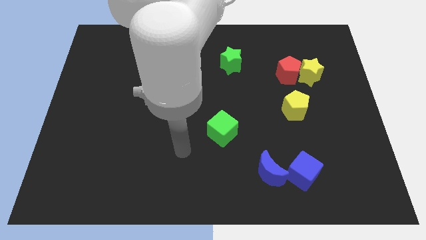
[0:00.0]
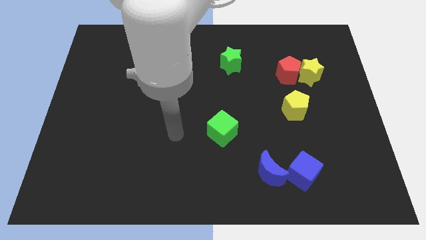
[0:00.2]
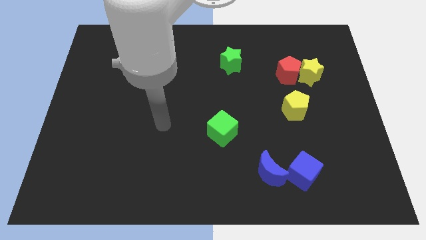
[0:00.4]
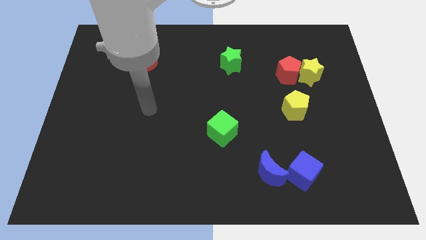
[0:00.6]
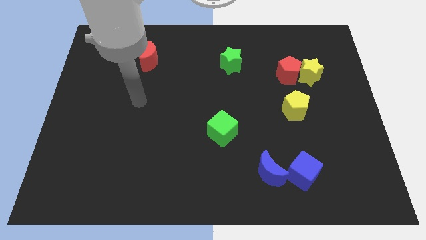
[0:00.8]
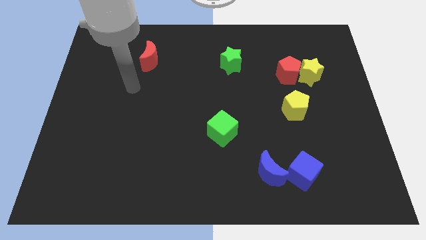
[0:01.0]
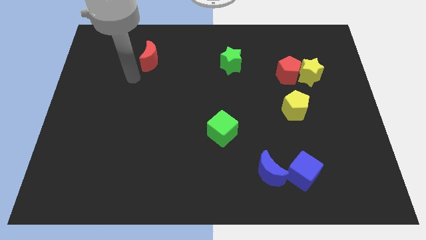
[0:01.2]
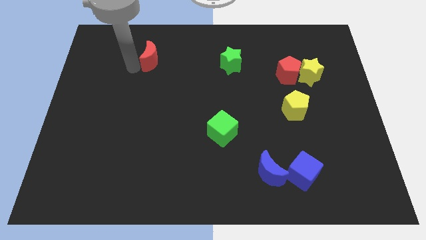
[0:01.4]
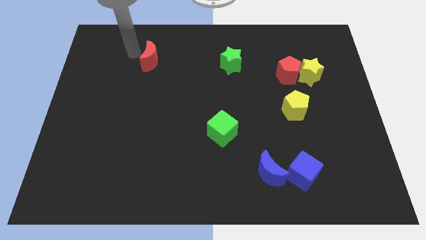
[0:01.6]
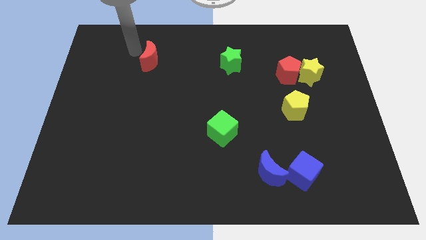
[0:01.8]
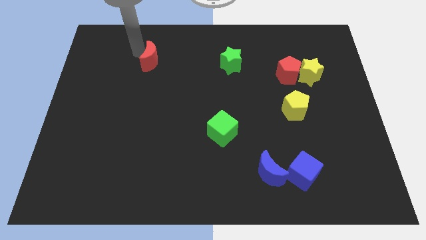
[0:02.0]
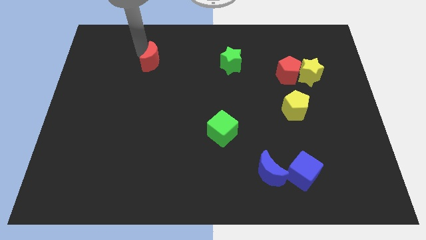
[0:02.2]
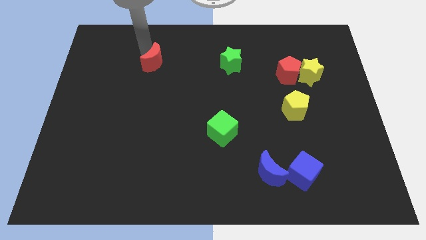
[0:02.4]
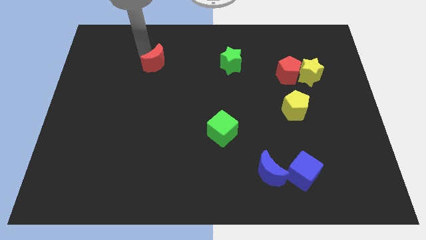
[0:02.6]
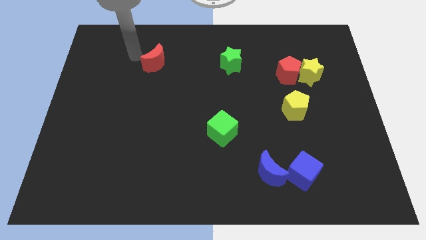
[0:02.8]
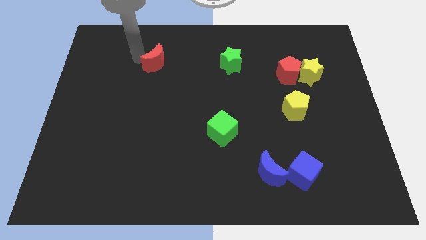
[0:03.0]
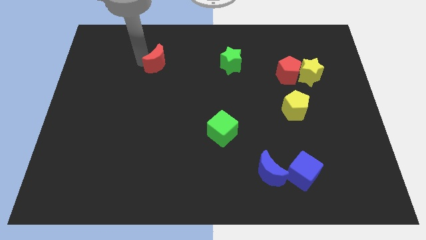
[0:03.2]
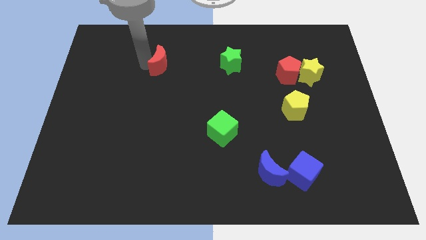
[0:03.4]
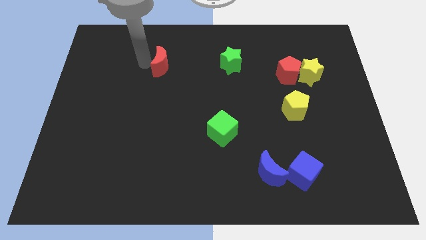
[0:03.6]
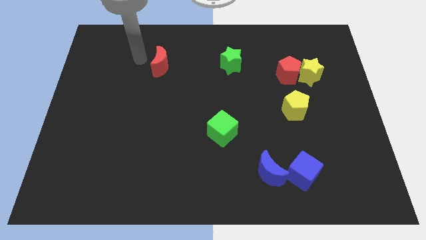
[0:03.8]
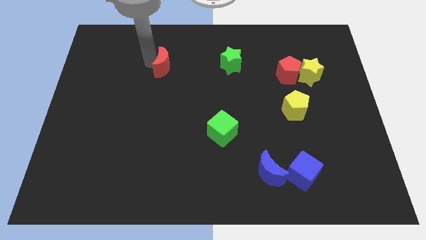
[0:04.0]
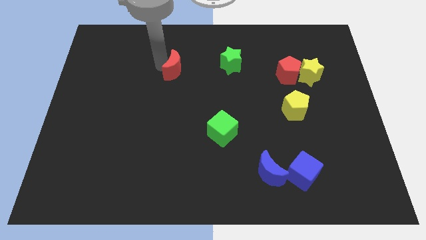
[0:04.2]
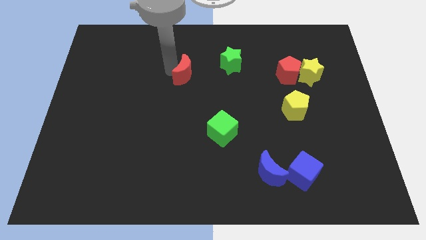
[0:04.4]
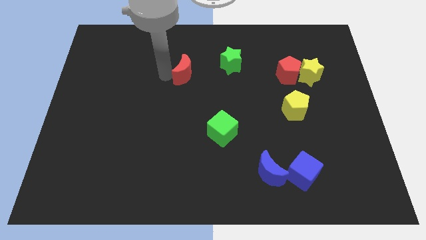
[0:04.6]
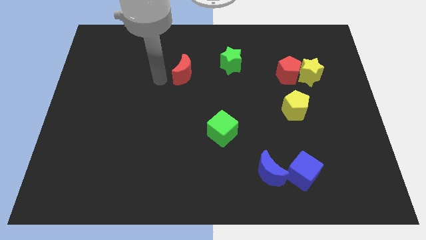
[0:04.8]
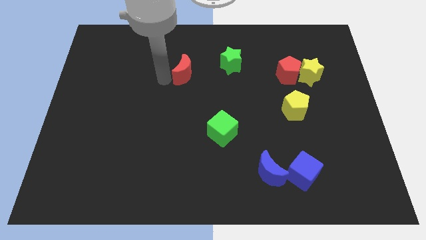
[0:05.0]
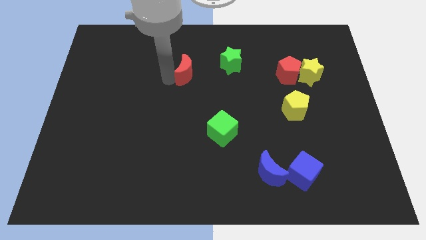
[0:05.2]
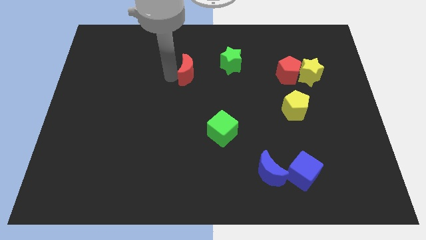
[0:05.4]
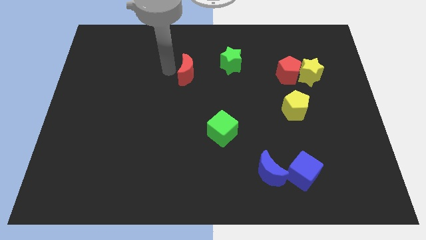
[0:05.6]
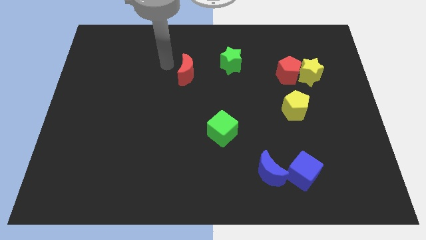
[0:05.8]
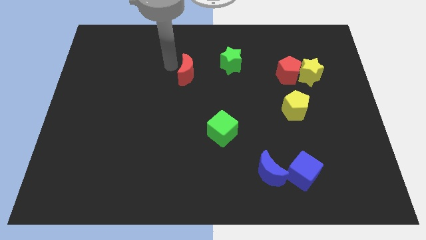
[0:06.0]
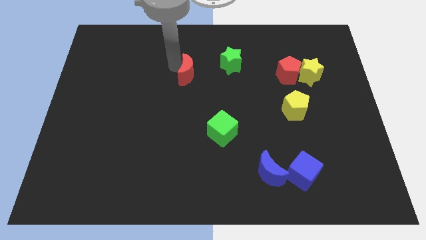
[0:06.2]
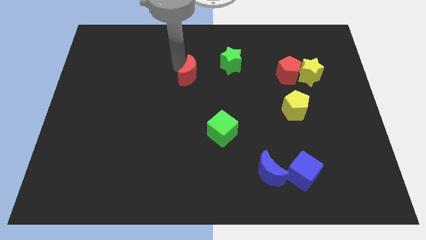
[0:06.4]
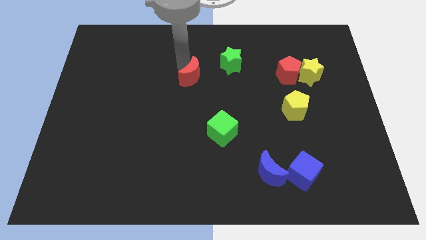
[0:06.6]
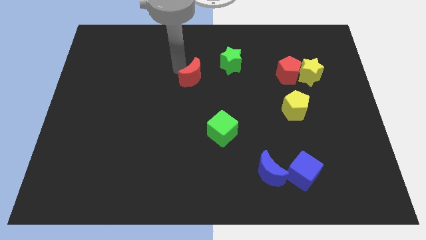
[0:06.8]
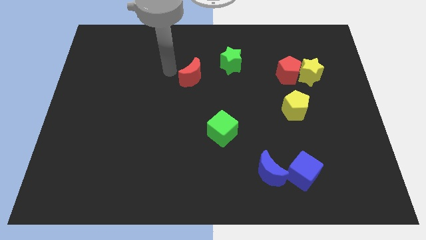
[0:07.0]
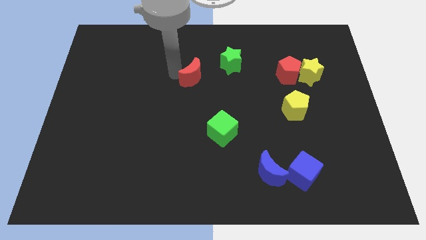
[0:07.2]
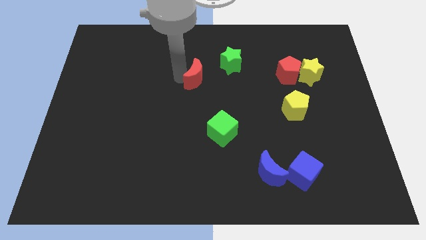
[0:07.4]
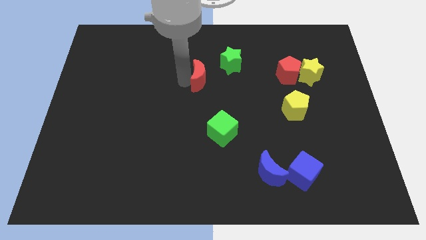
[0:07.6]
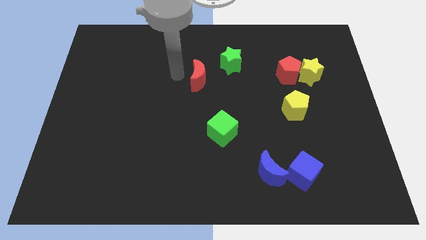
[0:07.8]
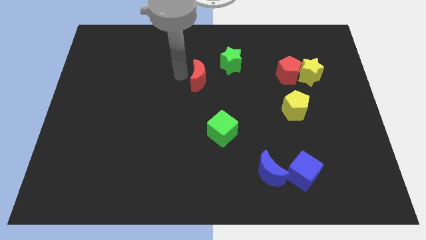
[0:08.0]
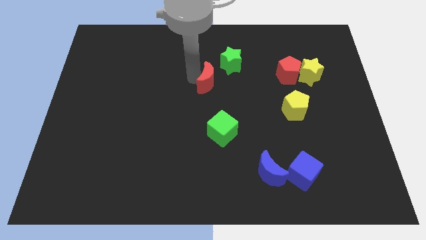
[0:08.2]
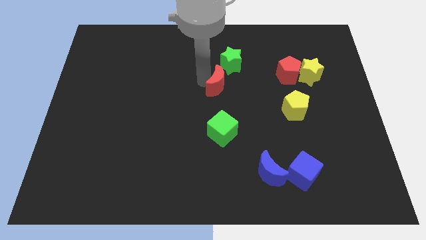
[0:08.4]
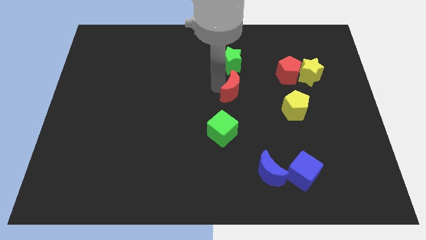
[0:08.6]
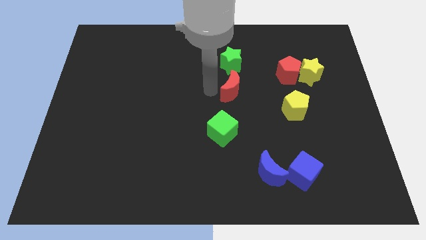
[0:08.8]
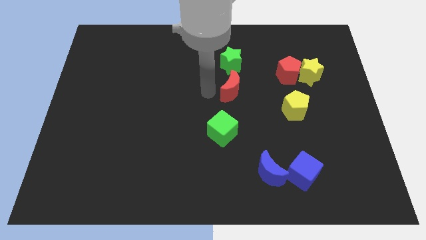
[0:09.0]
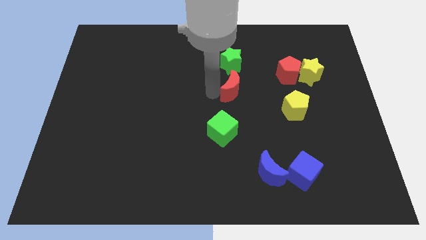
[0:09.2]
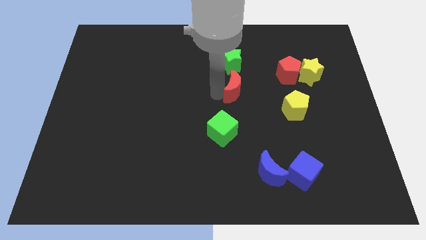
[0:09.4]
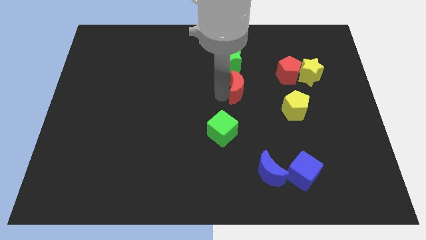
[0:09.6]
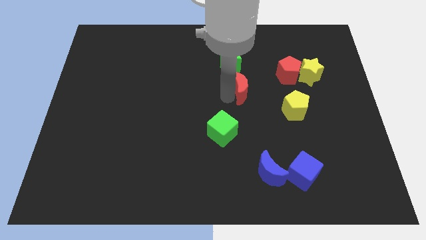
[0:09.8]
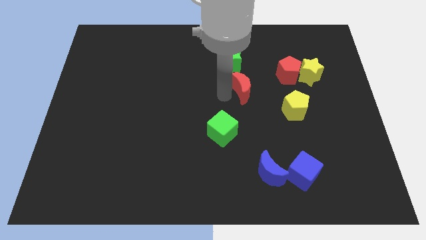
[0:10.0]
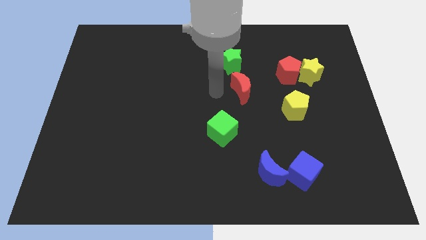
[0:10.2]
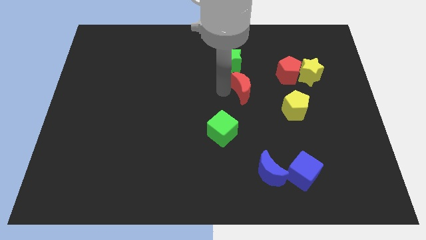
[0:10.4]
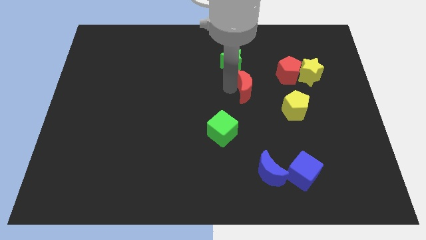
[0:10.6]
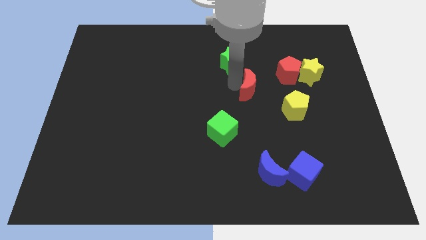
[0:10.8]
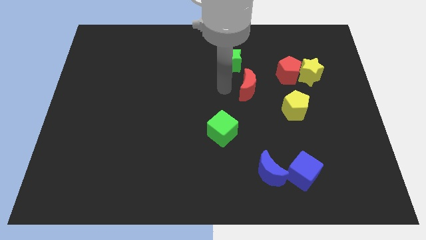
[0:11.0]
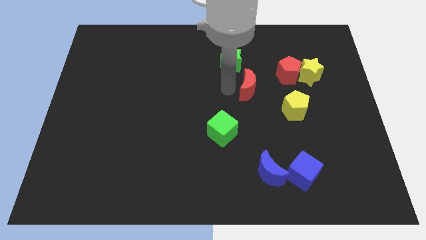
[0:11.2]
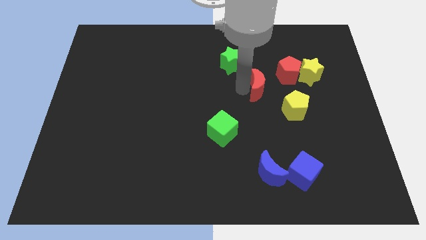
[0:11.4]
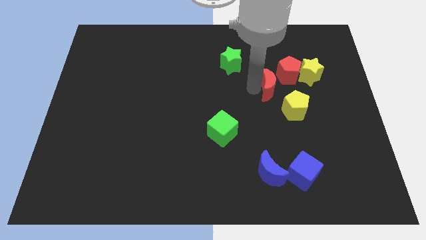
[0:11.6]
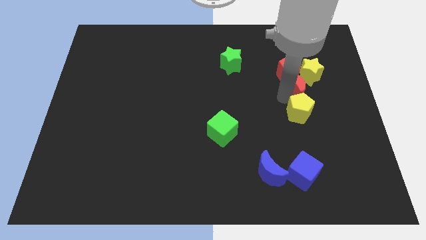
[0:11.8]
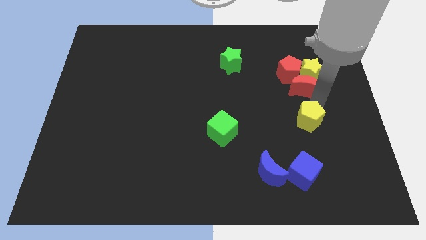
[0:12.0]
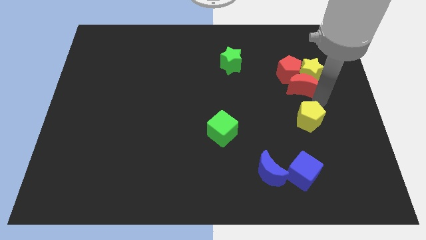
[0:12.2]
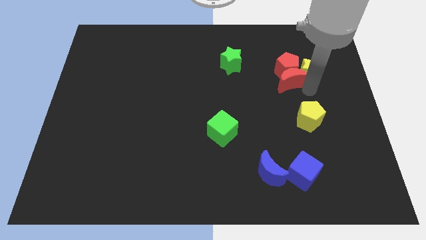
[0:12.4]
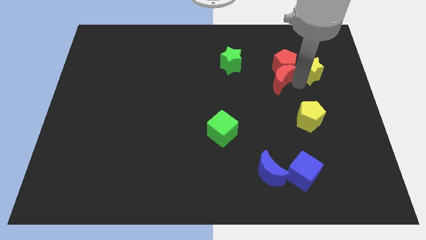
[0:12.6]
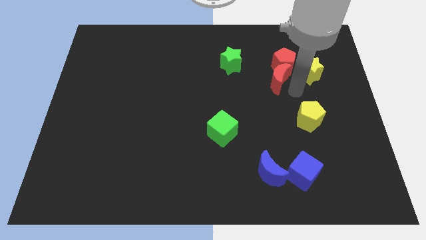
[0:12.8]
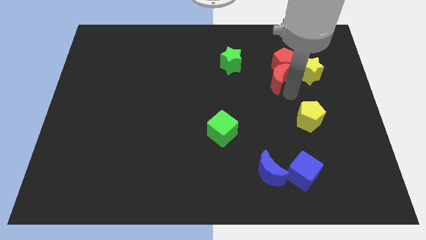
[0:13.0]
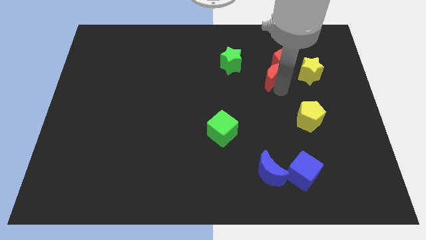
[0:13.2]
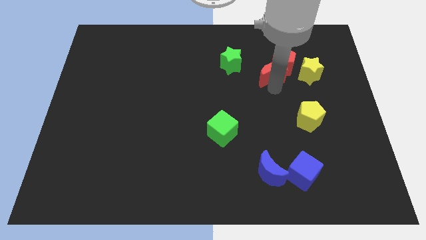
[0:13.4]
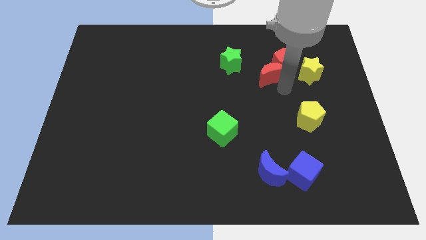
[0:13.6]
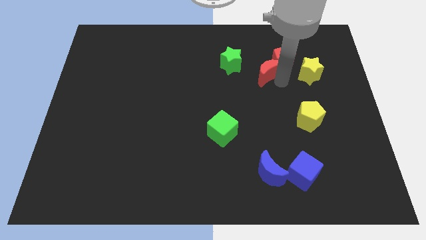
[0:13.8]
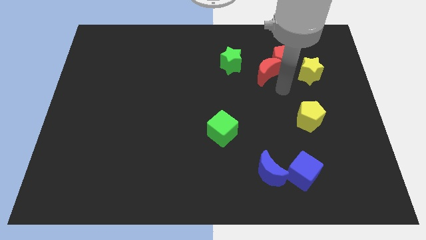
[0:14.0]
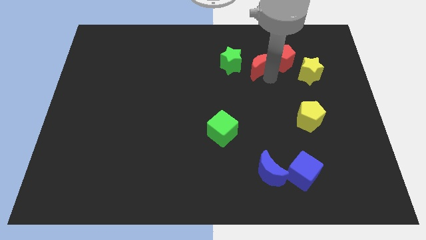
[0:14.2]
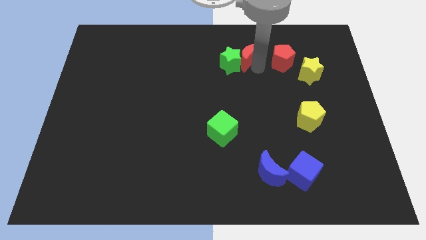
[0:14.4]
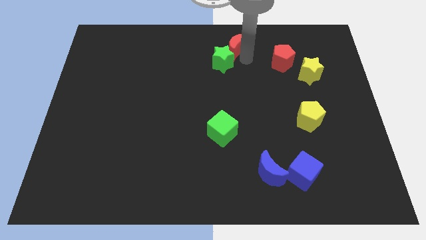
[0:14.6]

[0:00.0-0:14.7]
push the red moon to the top
